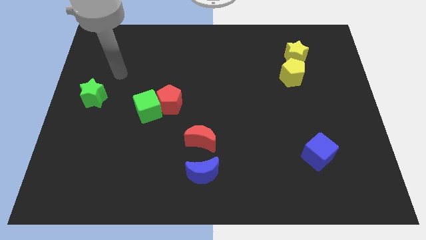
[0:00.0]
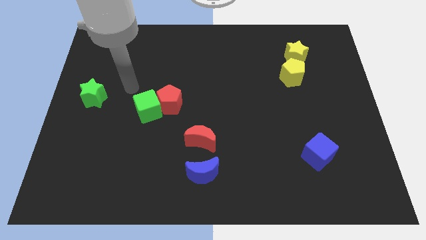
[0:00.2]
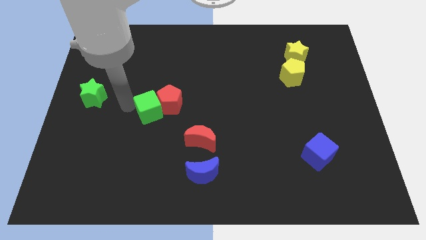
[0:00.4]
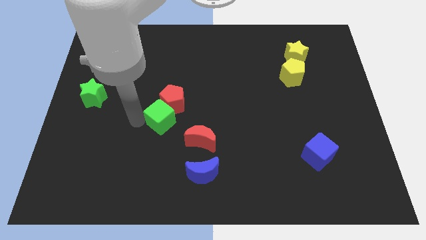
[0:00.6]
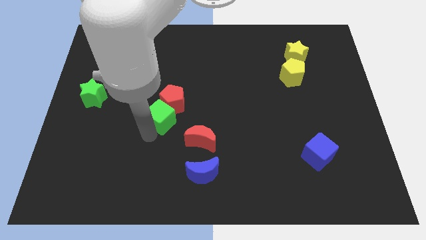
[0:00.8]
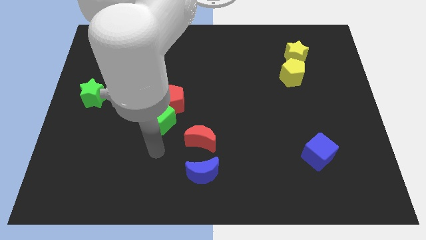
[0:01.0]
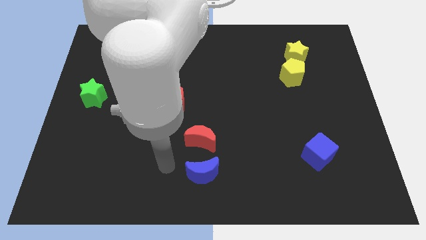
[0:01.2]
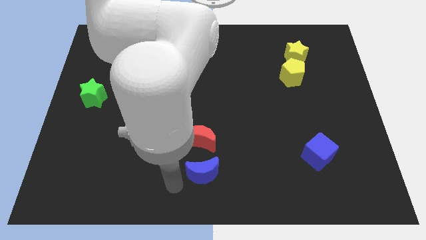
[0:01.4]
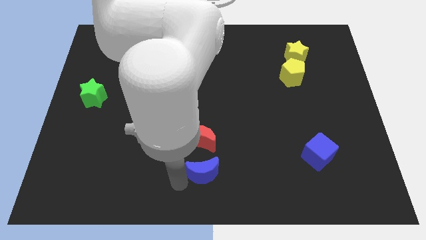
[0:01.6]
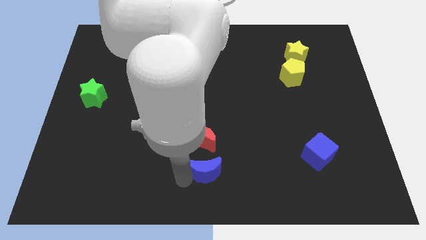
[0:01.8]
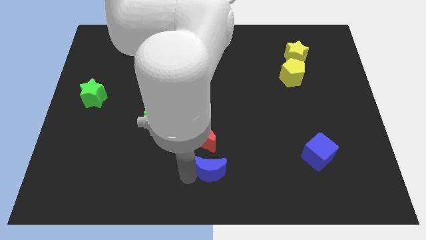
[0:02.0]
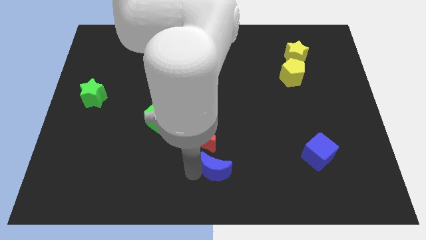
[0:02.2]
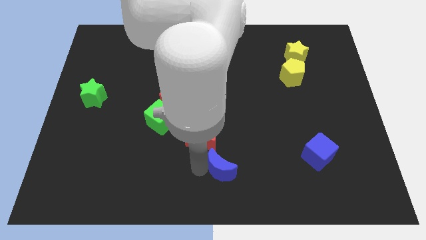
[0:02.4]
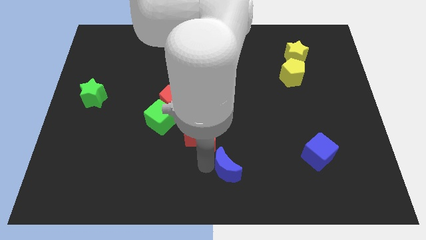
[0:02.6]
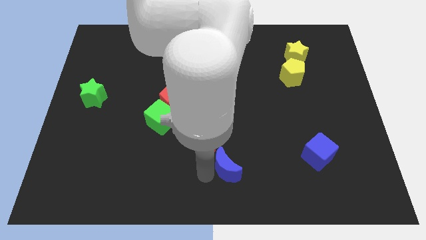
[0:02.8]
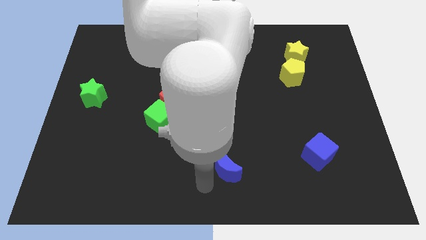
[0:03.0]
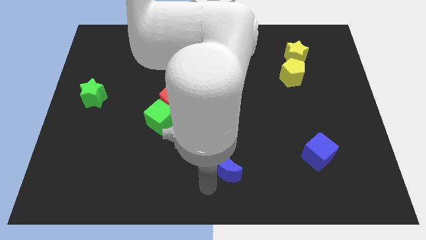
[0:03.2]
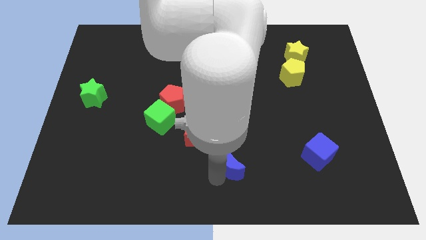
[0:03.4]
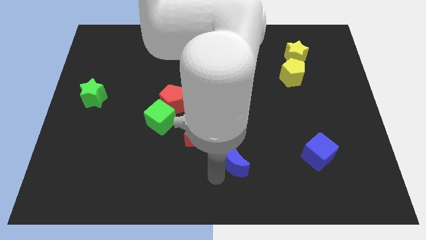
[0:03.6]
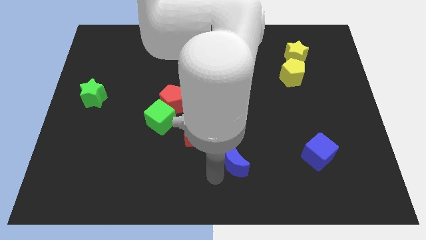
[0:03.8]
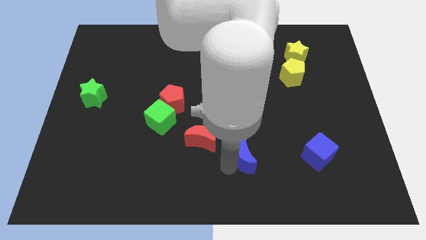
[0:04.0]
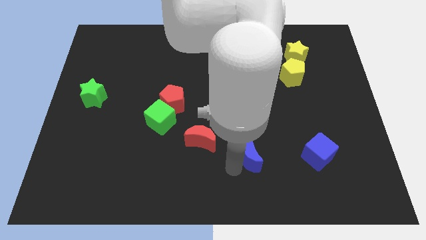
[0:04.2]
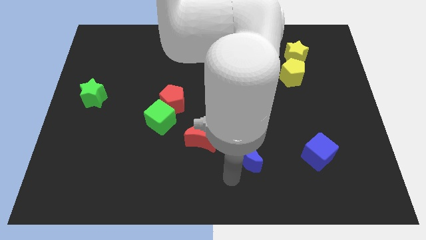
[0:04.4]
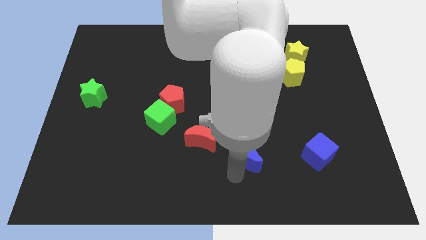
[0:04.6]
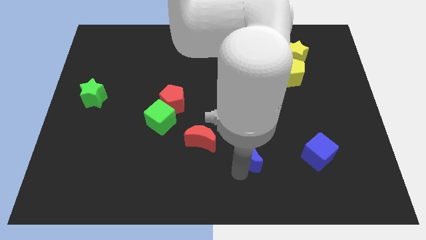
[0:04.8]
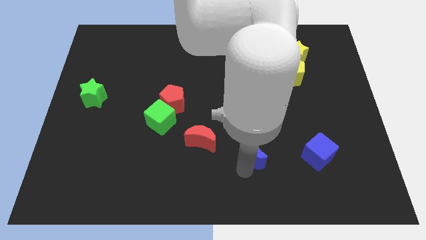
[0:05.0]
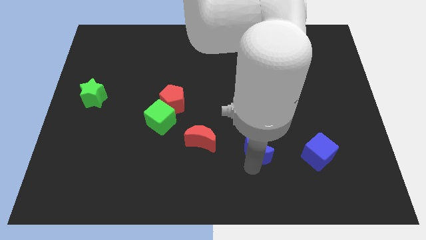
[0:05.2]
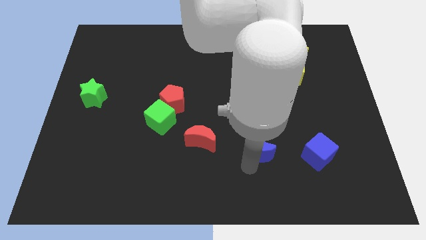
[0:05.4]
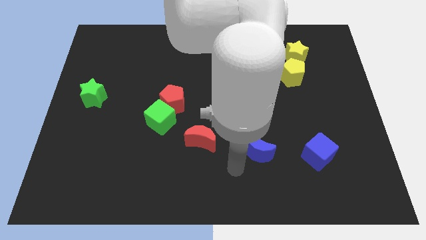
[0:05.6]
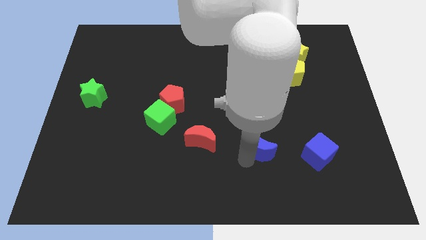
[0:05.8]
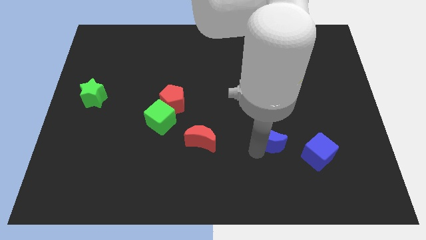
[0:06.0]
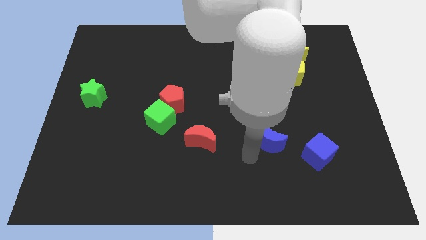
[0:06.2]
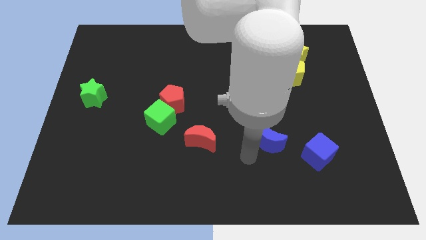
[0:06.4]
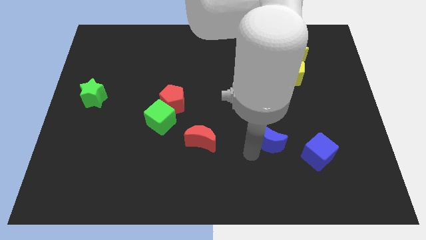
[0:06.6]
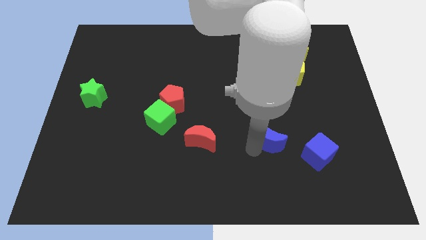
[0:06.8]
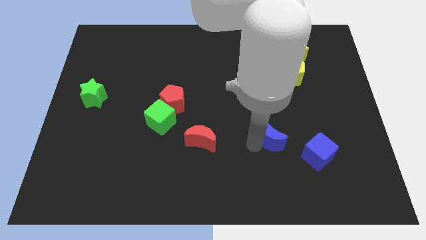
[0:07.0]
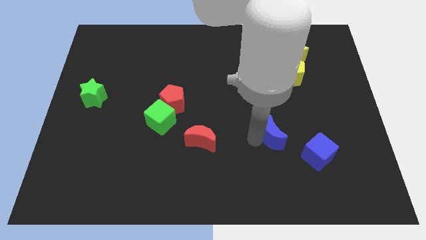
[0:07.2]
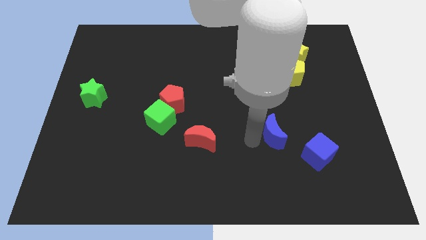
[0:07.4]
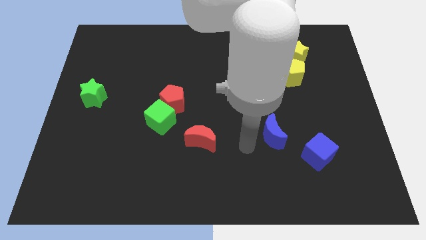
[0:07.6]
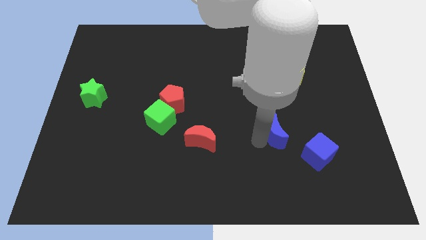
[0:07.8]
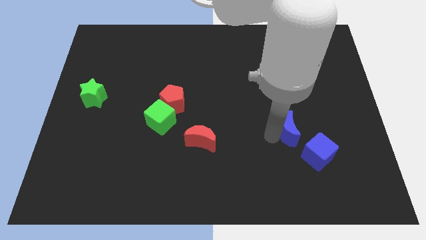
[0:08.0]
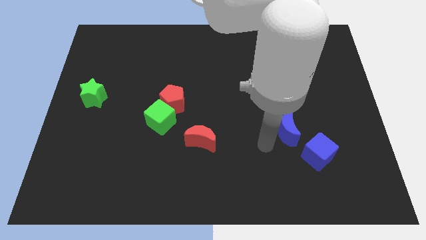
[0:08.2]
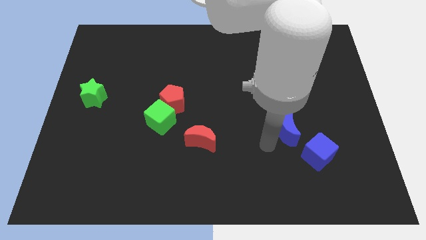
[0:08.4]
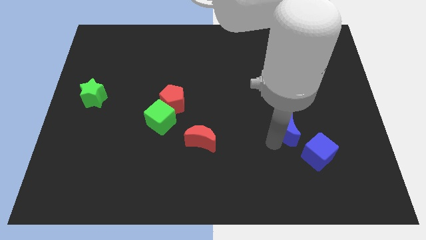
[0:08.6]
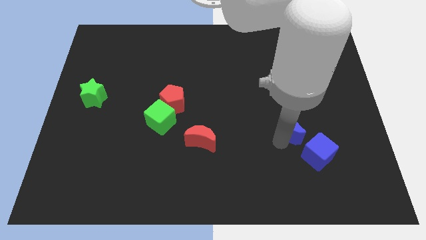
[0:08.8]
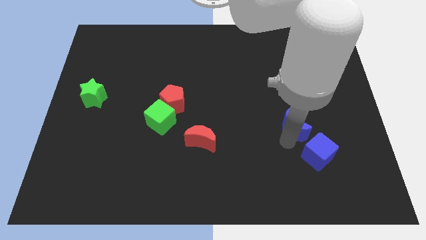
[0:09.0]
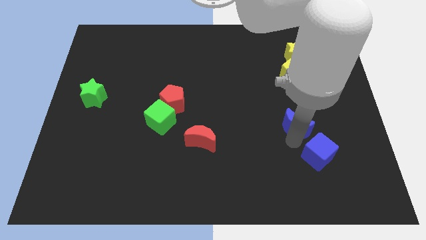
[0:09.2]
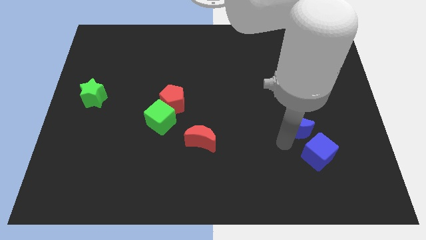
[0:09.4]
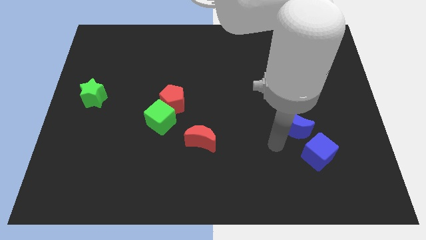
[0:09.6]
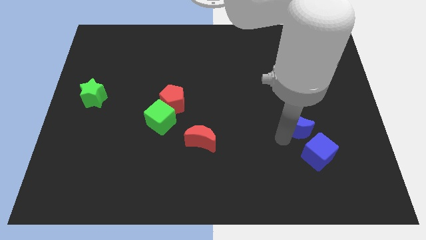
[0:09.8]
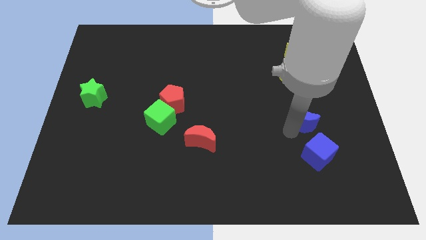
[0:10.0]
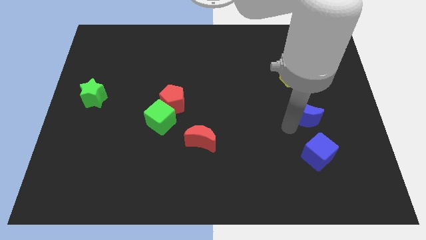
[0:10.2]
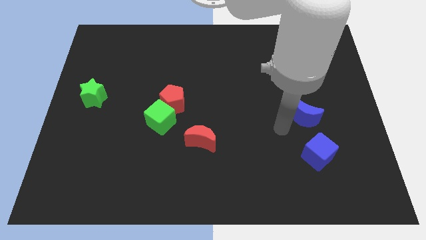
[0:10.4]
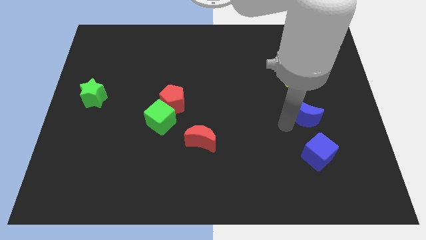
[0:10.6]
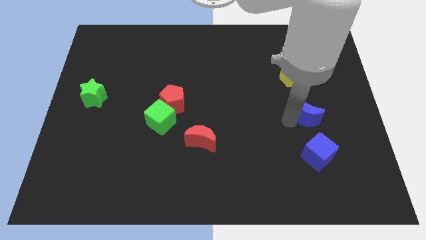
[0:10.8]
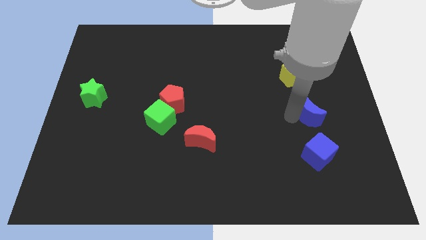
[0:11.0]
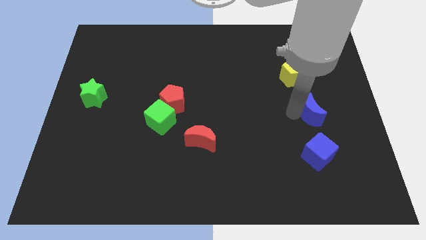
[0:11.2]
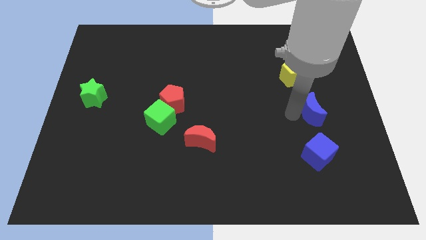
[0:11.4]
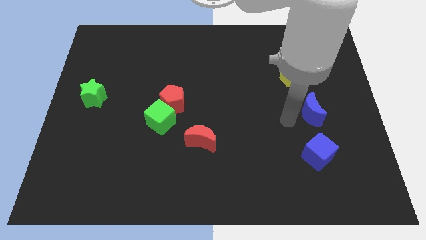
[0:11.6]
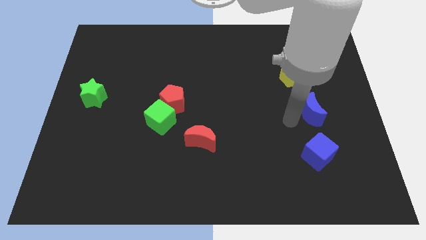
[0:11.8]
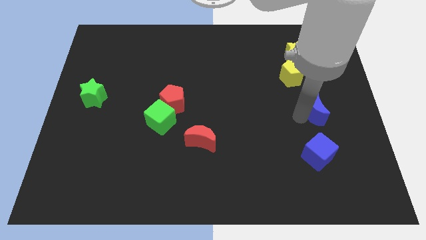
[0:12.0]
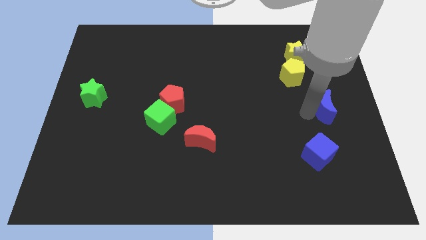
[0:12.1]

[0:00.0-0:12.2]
slide the blue moon to the right side of the board

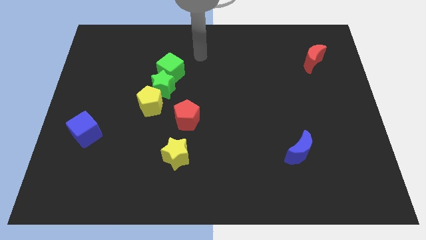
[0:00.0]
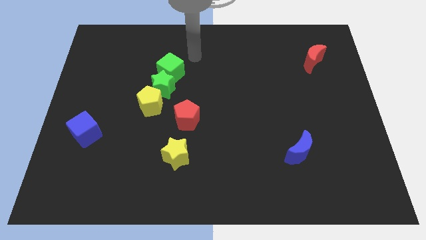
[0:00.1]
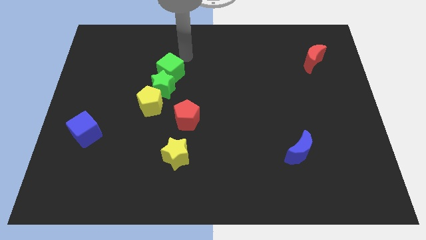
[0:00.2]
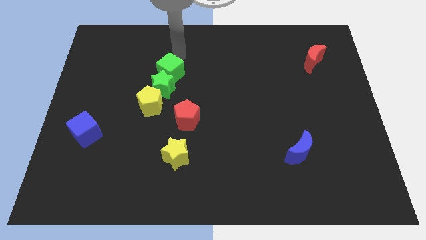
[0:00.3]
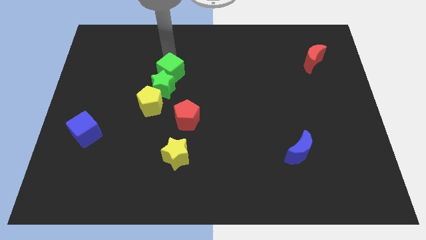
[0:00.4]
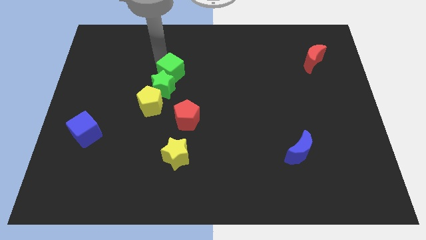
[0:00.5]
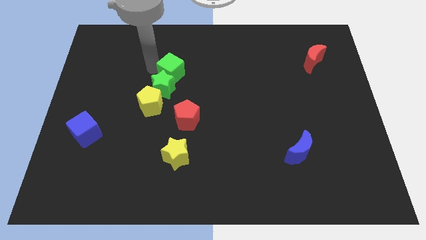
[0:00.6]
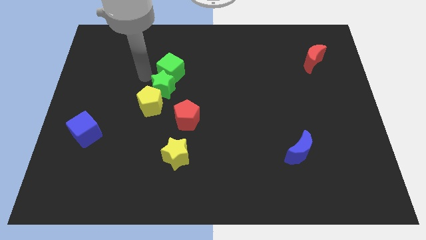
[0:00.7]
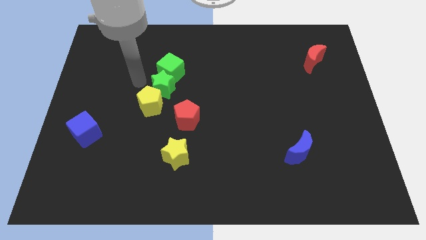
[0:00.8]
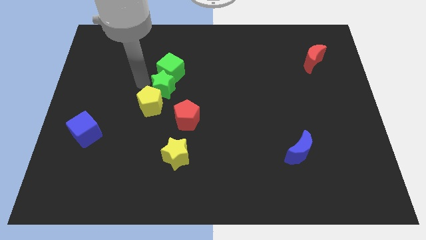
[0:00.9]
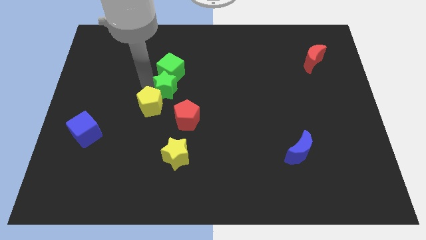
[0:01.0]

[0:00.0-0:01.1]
move the green star to the middle of the board
